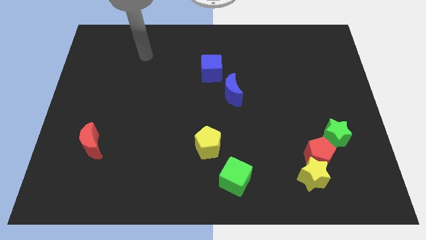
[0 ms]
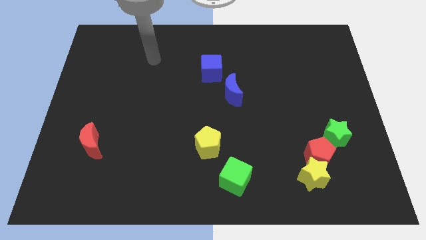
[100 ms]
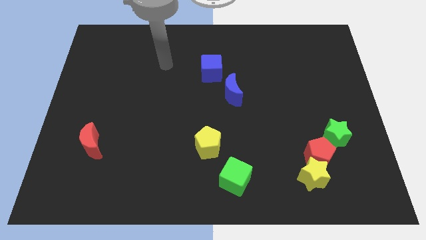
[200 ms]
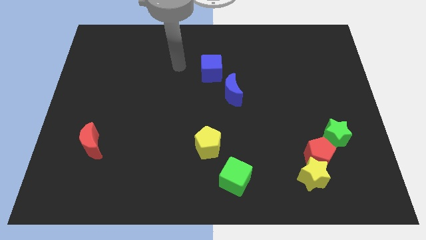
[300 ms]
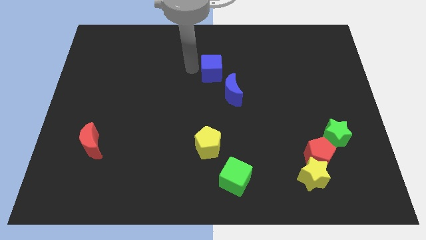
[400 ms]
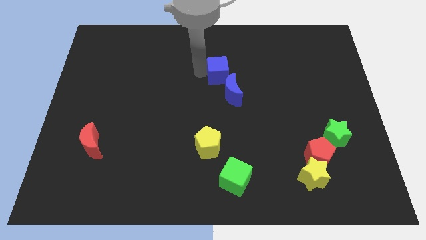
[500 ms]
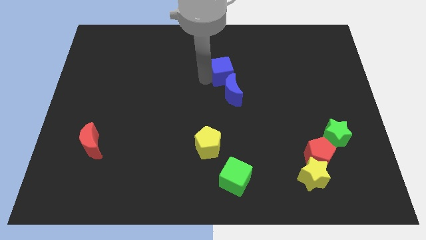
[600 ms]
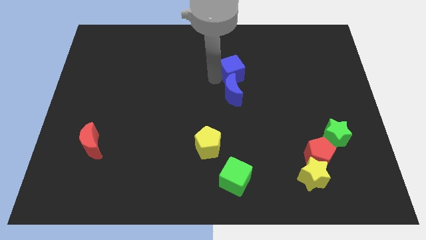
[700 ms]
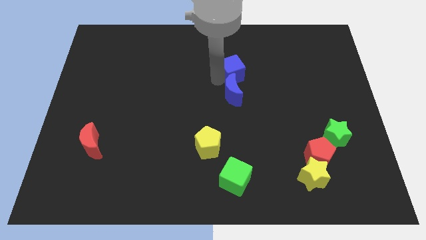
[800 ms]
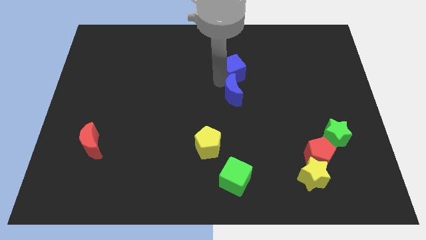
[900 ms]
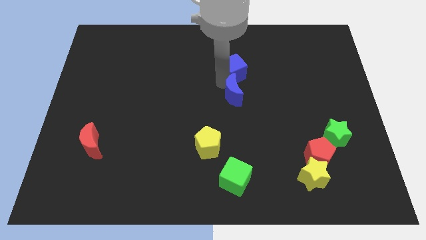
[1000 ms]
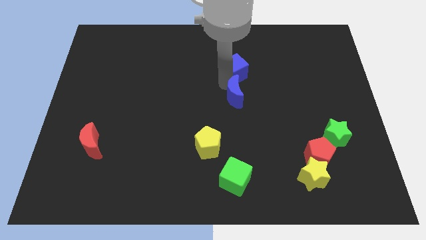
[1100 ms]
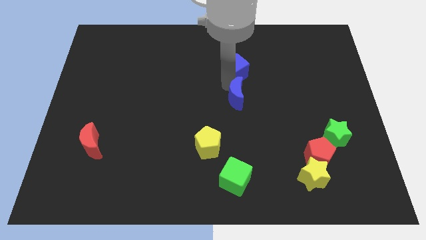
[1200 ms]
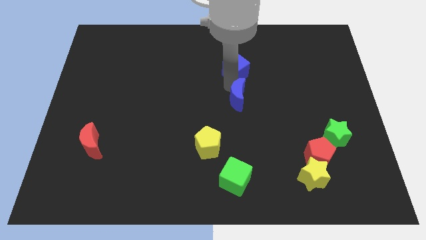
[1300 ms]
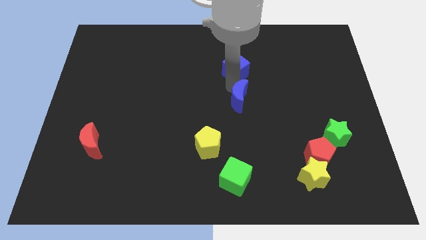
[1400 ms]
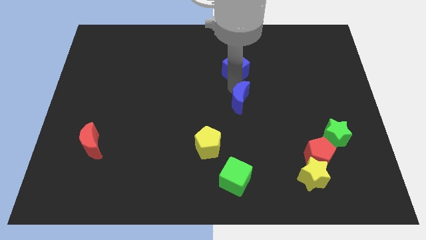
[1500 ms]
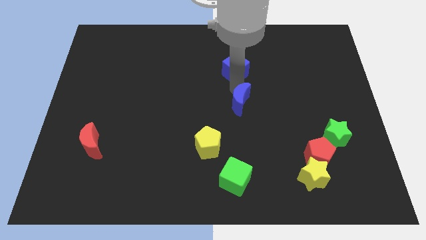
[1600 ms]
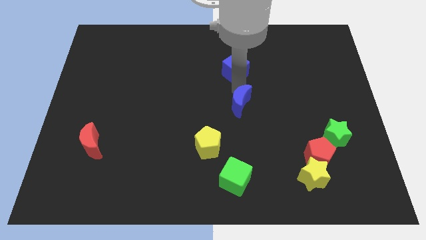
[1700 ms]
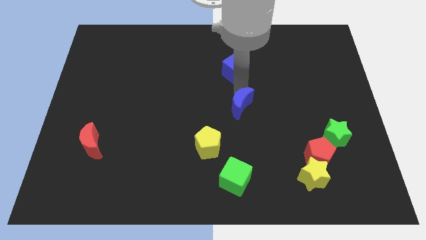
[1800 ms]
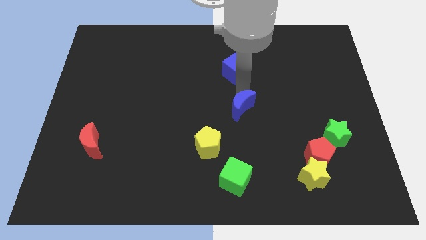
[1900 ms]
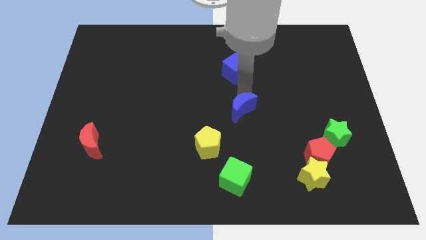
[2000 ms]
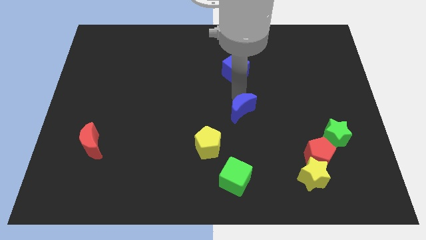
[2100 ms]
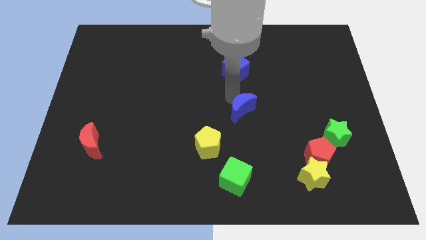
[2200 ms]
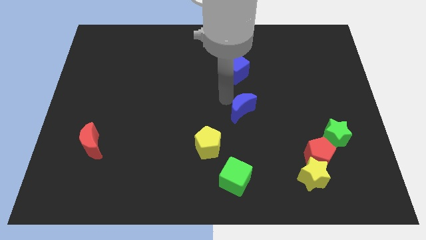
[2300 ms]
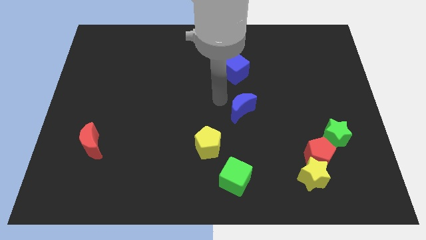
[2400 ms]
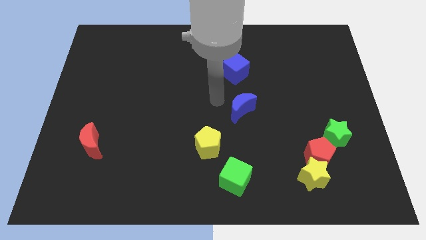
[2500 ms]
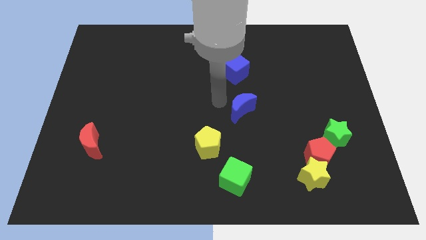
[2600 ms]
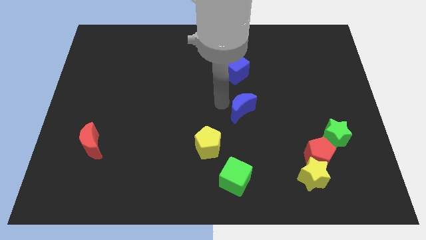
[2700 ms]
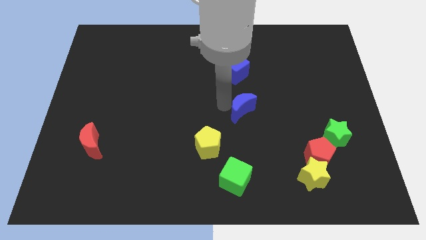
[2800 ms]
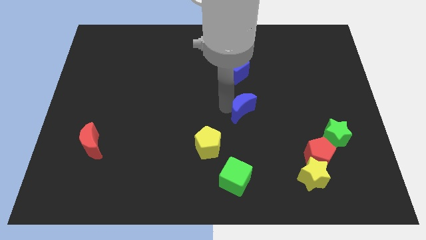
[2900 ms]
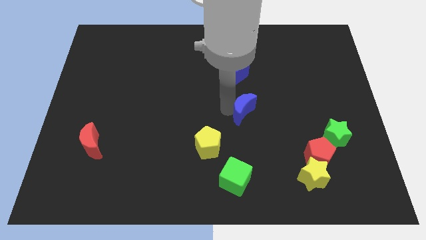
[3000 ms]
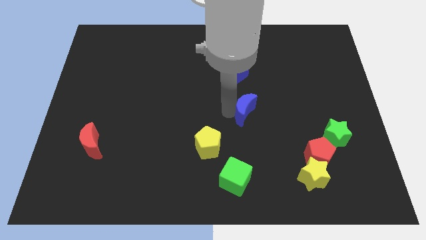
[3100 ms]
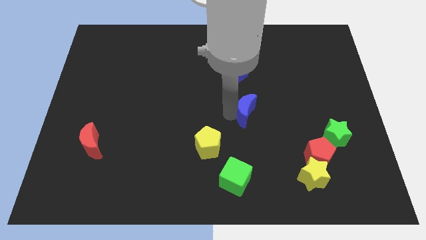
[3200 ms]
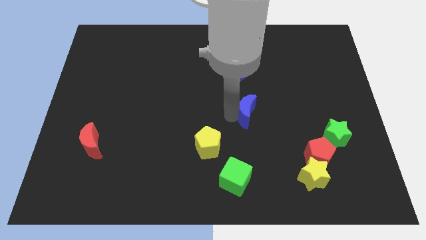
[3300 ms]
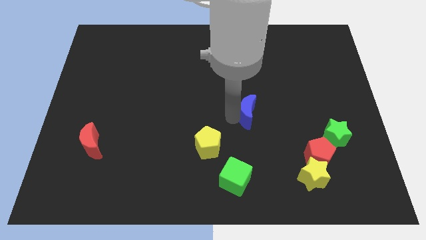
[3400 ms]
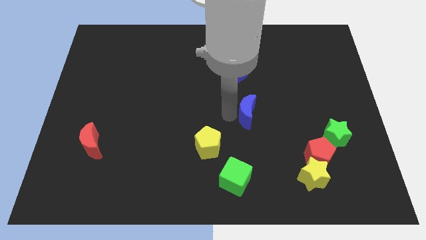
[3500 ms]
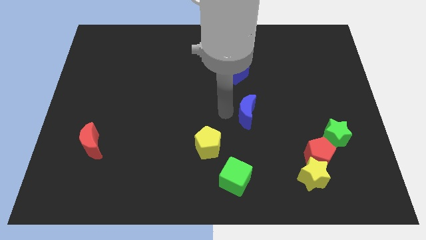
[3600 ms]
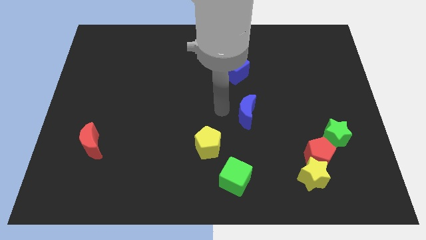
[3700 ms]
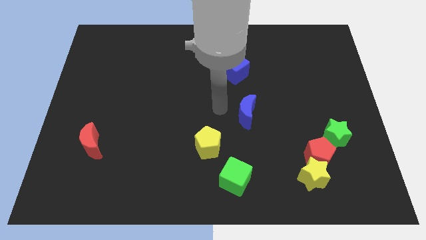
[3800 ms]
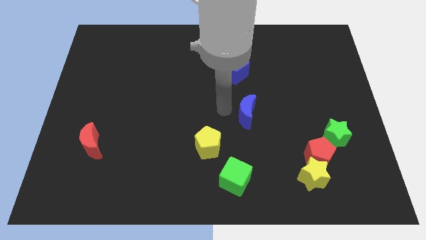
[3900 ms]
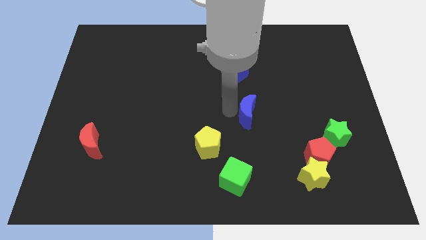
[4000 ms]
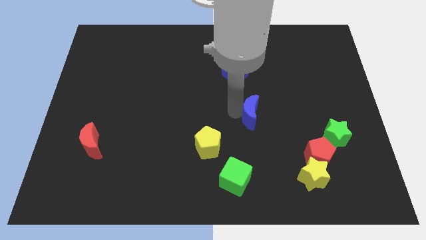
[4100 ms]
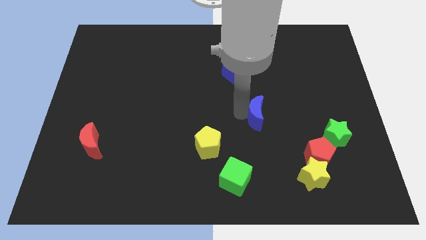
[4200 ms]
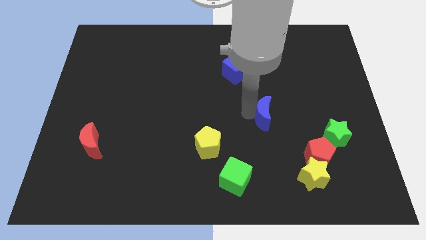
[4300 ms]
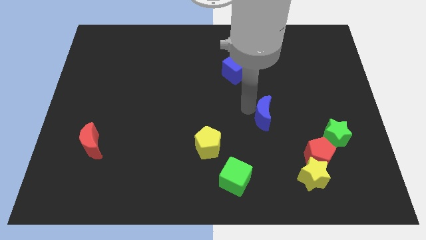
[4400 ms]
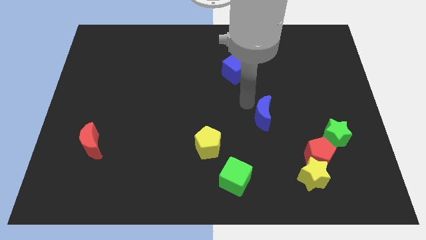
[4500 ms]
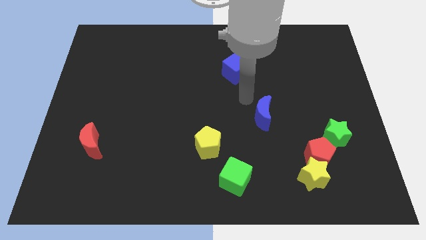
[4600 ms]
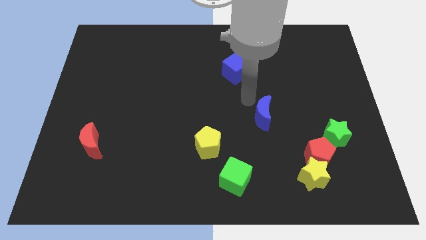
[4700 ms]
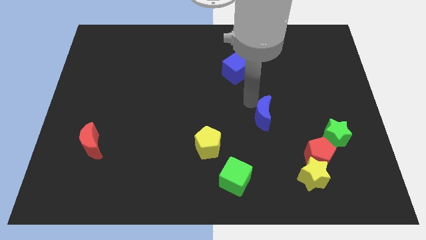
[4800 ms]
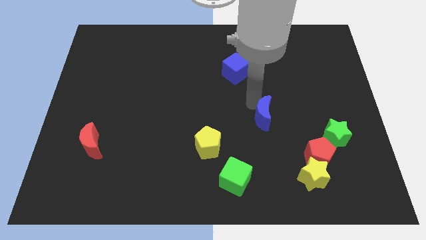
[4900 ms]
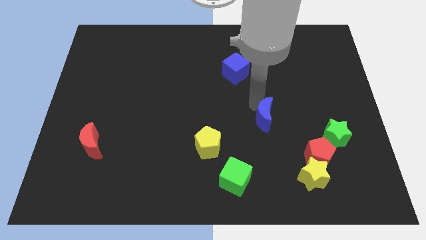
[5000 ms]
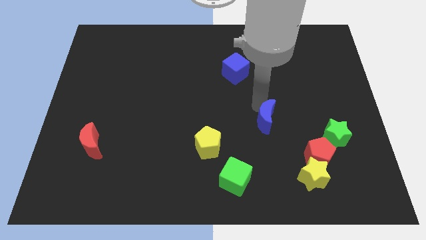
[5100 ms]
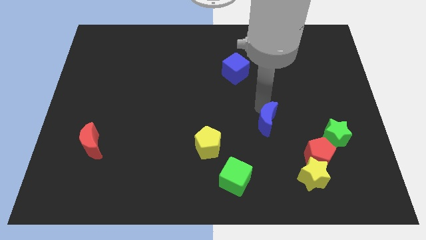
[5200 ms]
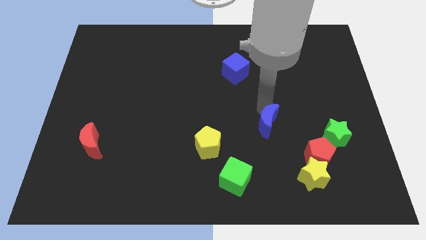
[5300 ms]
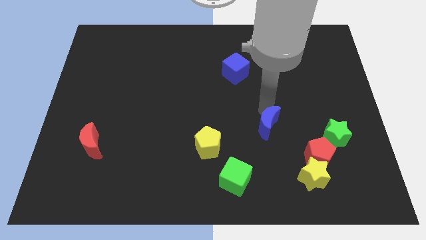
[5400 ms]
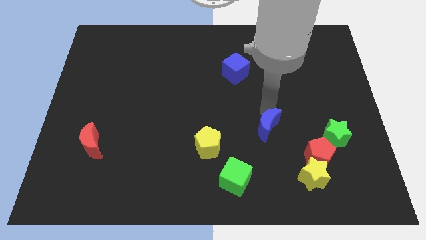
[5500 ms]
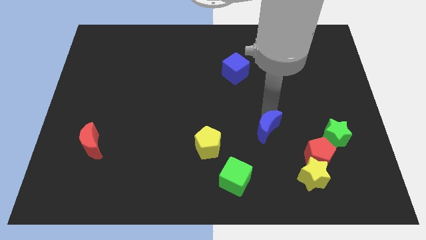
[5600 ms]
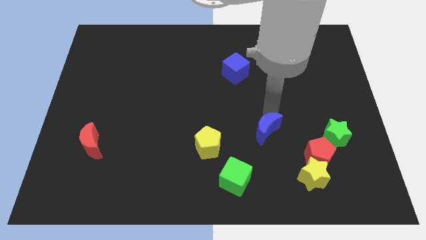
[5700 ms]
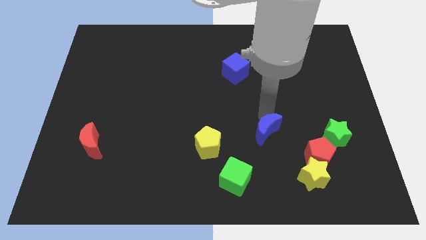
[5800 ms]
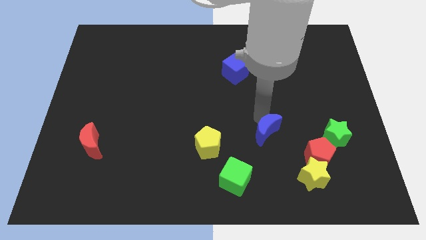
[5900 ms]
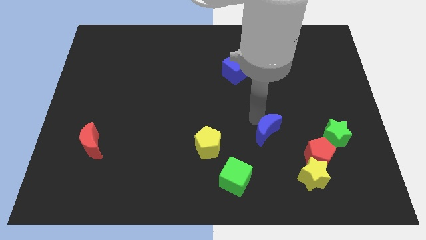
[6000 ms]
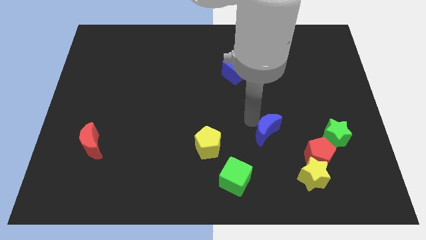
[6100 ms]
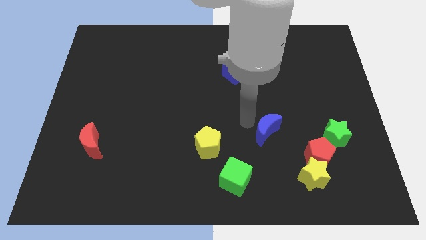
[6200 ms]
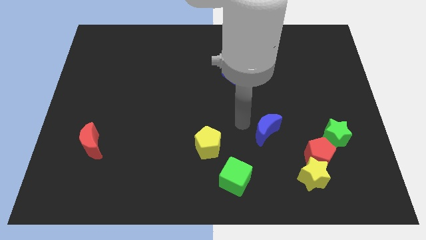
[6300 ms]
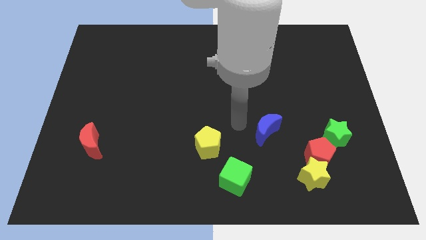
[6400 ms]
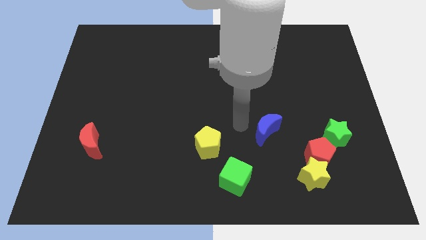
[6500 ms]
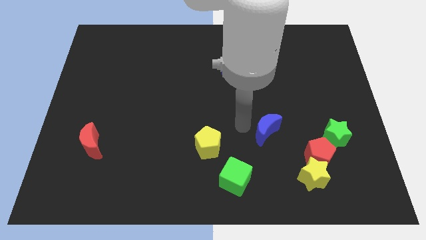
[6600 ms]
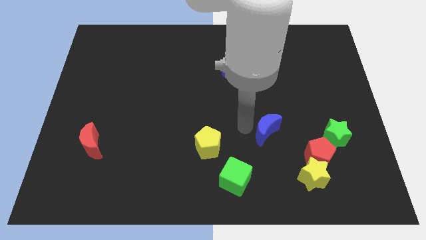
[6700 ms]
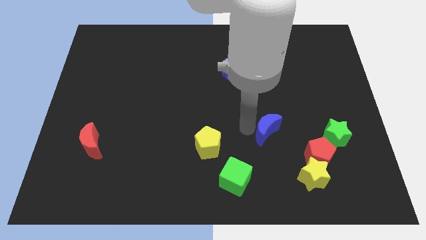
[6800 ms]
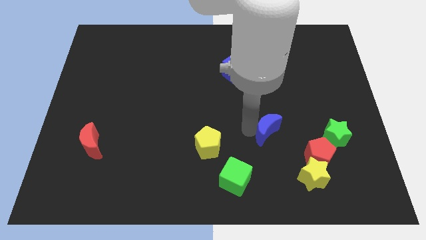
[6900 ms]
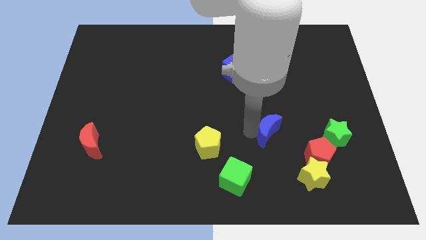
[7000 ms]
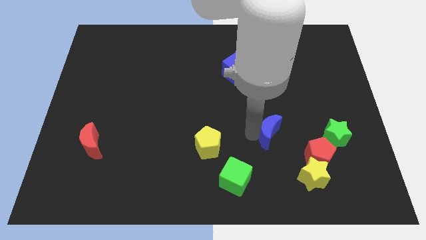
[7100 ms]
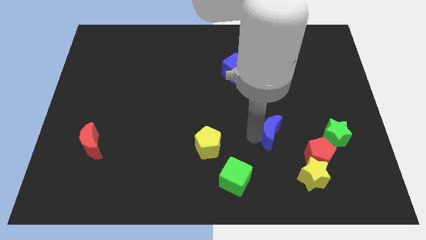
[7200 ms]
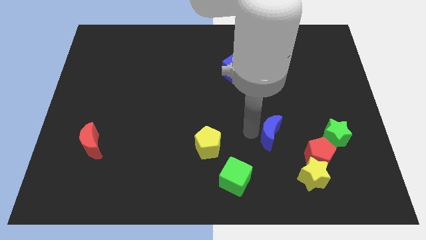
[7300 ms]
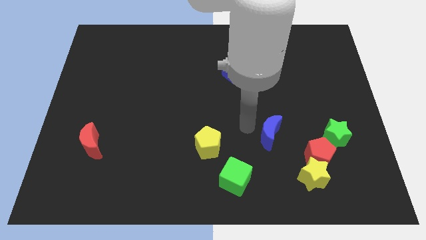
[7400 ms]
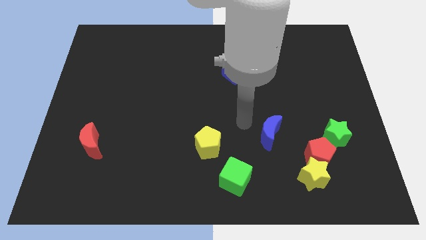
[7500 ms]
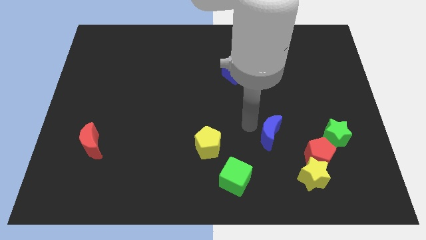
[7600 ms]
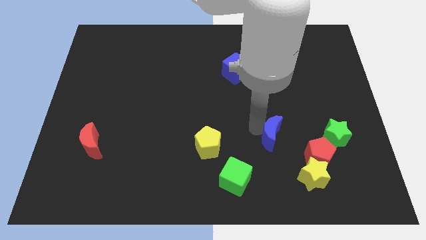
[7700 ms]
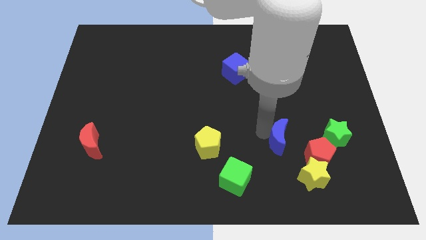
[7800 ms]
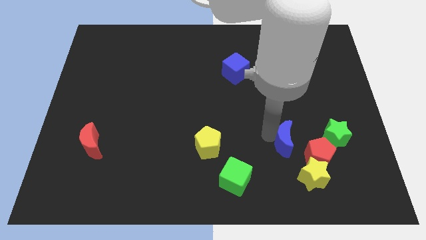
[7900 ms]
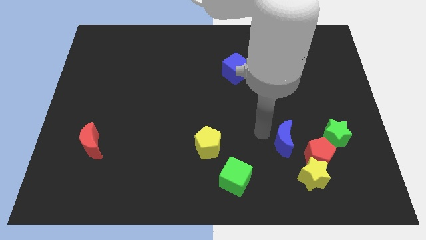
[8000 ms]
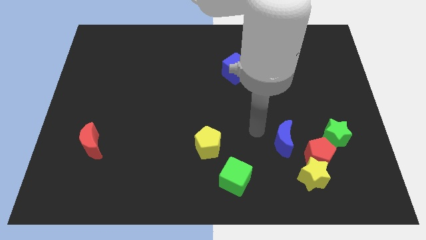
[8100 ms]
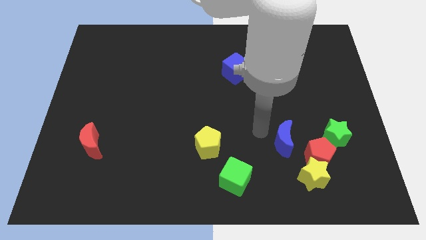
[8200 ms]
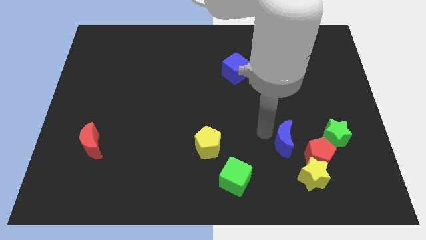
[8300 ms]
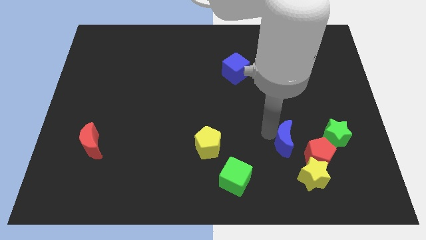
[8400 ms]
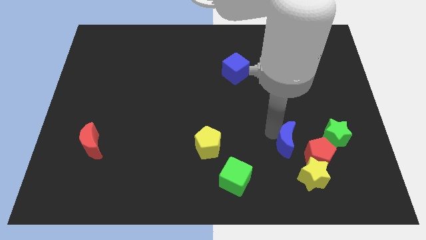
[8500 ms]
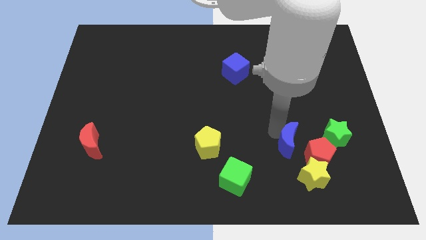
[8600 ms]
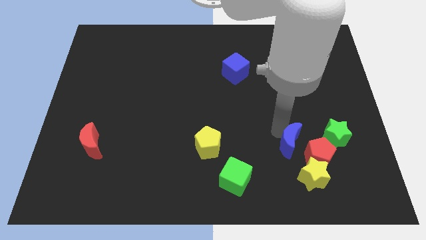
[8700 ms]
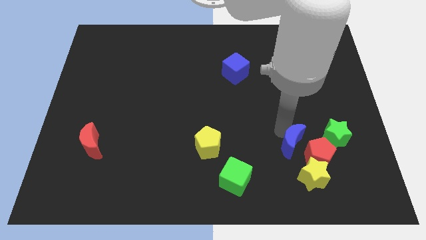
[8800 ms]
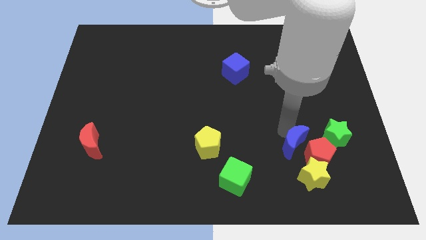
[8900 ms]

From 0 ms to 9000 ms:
move the blue moon close to the red pentagon
